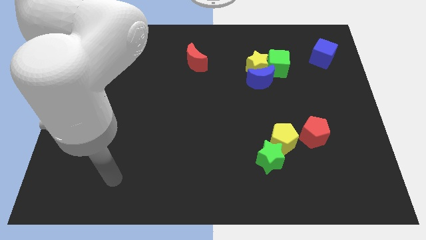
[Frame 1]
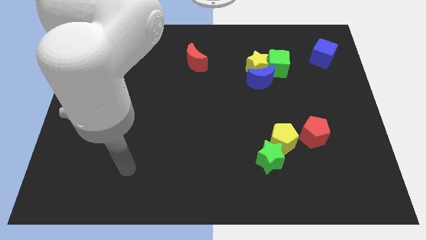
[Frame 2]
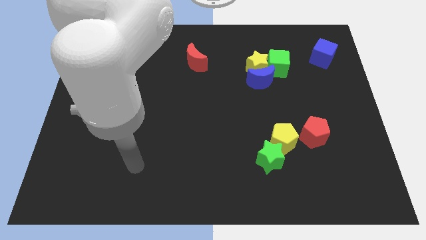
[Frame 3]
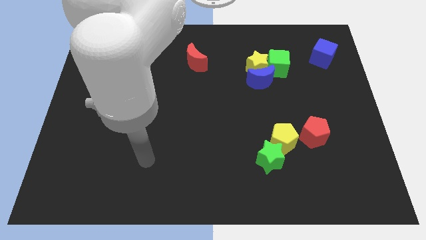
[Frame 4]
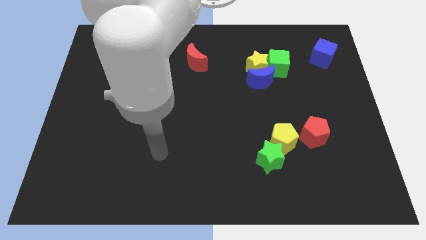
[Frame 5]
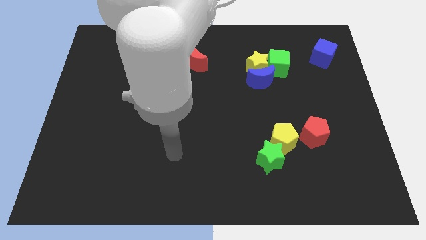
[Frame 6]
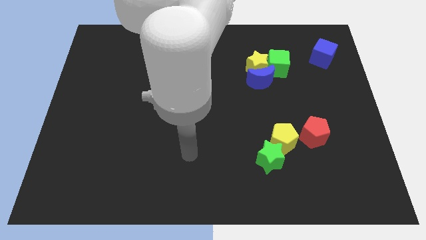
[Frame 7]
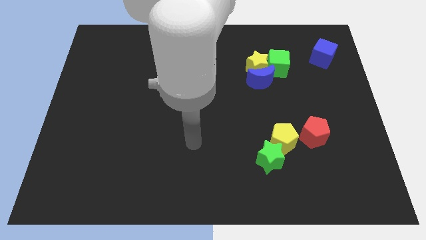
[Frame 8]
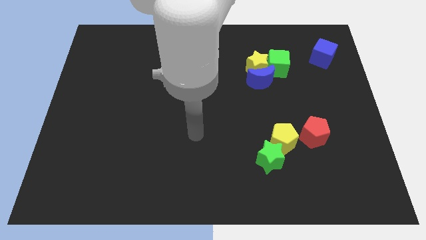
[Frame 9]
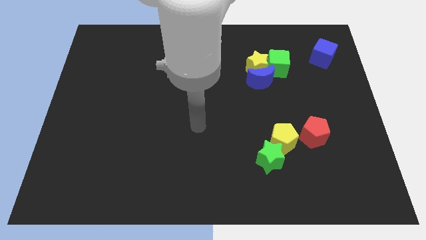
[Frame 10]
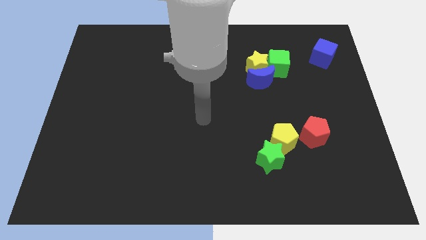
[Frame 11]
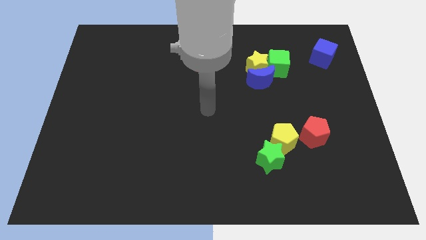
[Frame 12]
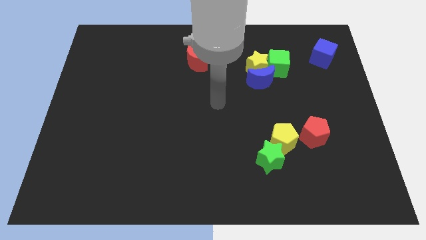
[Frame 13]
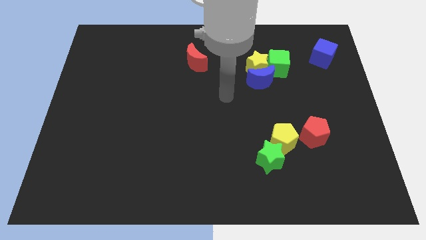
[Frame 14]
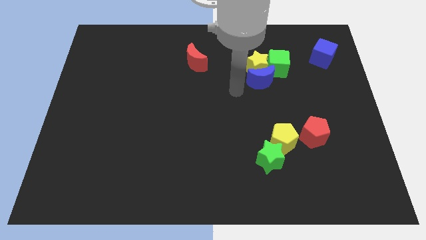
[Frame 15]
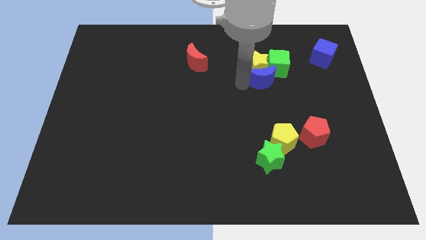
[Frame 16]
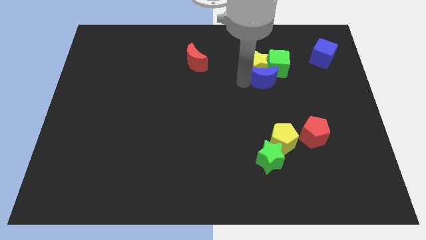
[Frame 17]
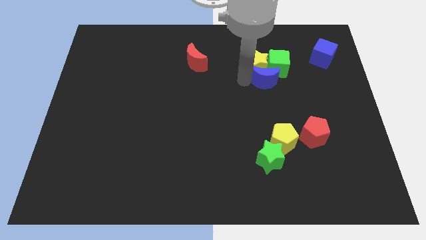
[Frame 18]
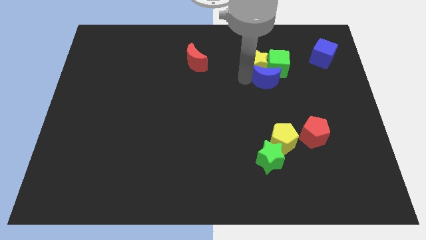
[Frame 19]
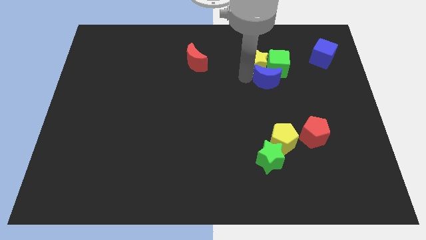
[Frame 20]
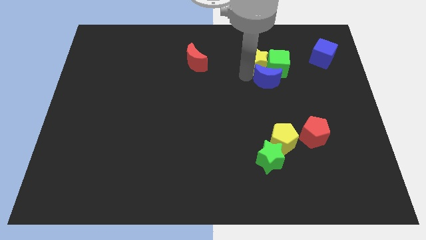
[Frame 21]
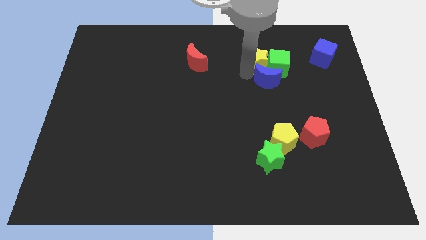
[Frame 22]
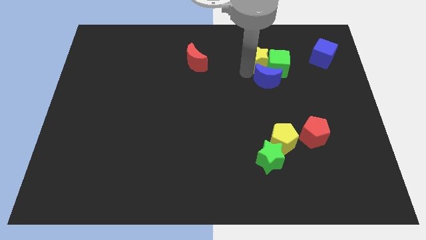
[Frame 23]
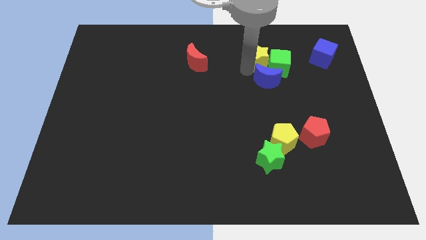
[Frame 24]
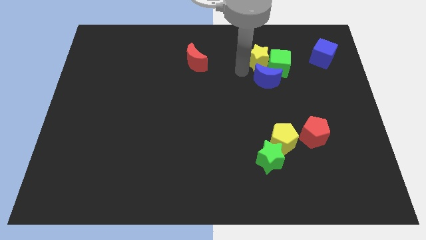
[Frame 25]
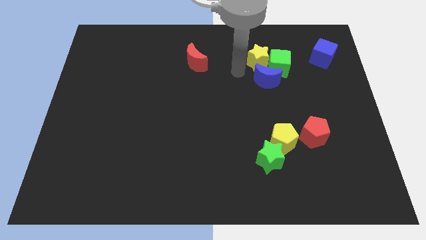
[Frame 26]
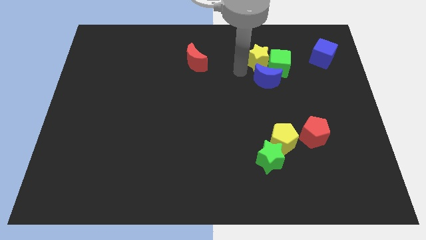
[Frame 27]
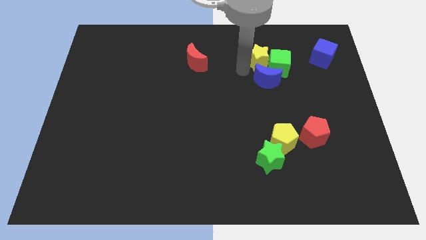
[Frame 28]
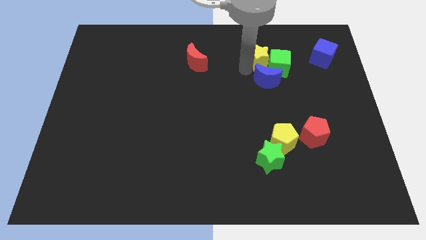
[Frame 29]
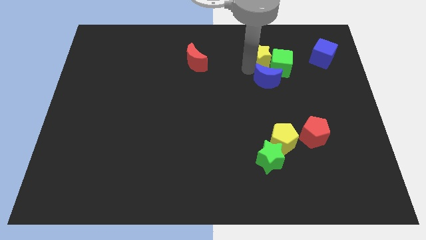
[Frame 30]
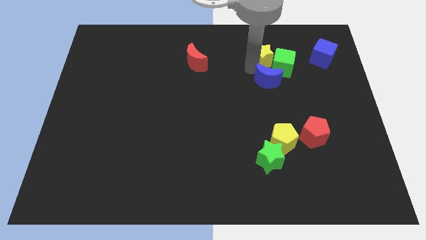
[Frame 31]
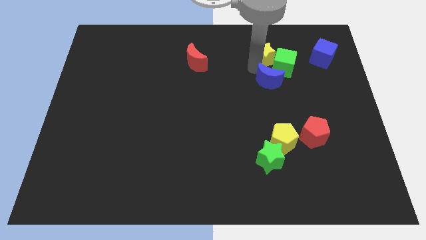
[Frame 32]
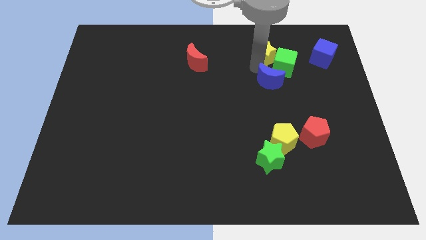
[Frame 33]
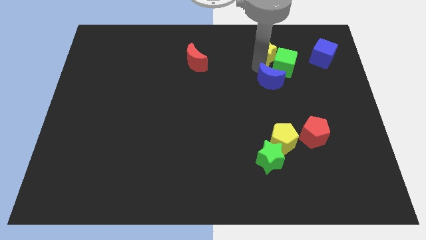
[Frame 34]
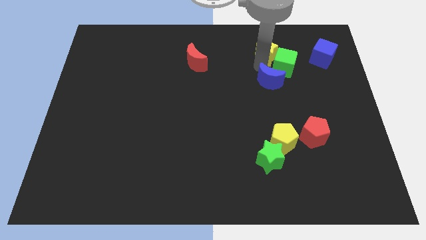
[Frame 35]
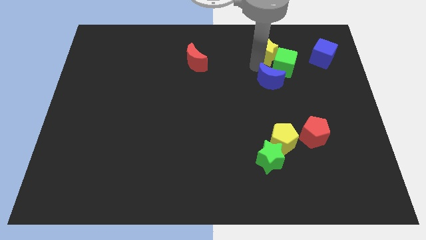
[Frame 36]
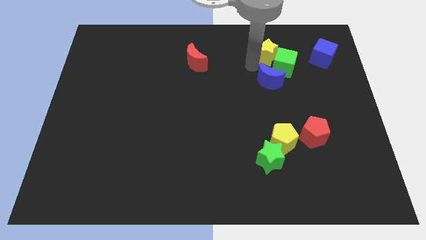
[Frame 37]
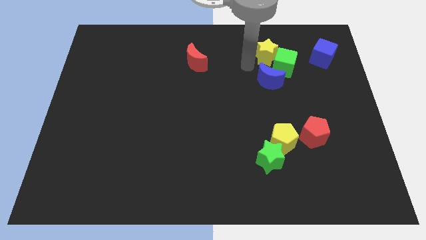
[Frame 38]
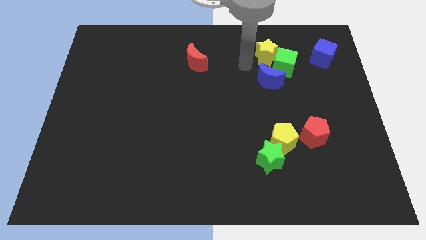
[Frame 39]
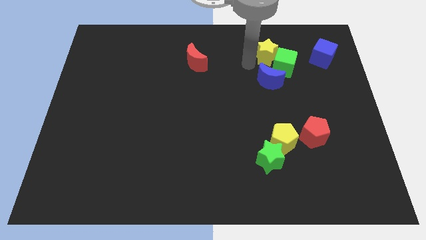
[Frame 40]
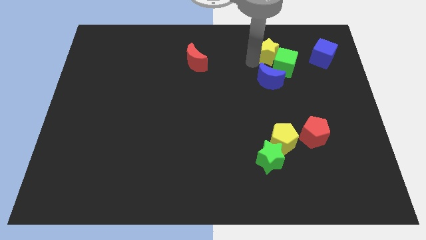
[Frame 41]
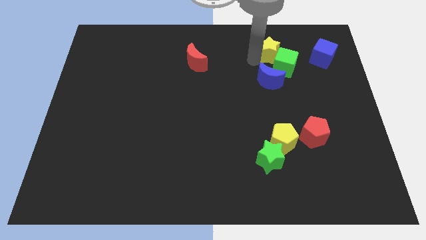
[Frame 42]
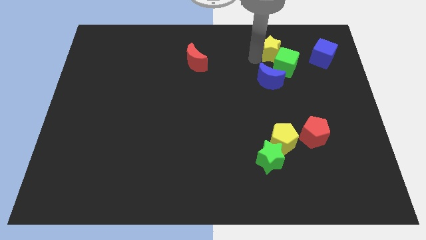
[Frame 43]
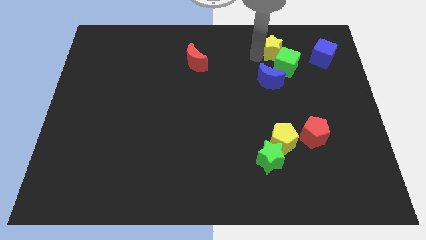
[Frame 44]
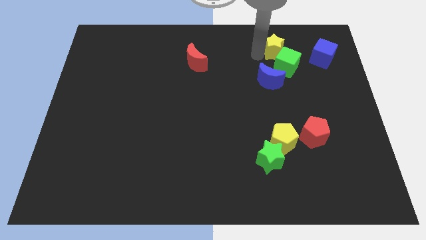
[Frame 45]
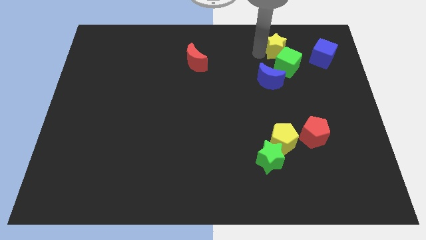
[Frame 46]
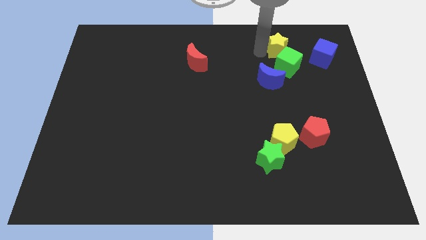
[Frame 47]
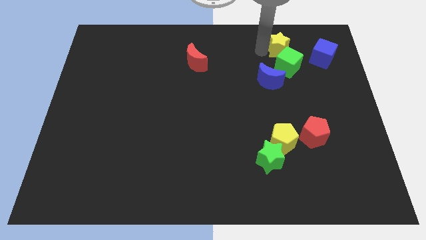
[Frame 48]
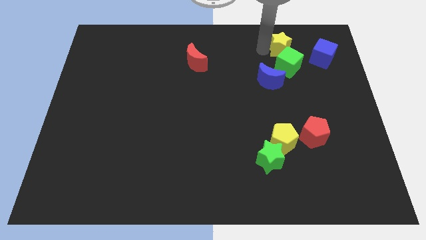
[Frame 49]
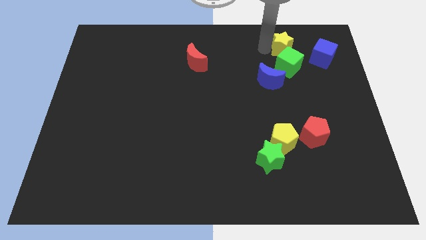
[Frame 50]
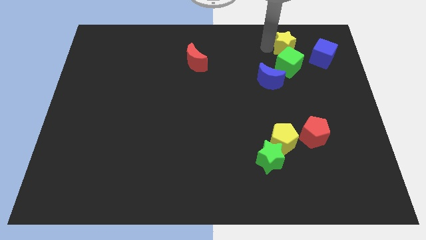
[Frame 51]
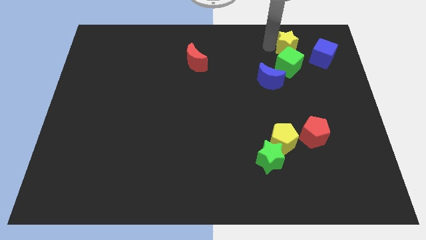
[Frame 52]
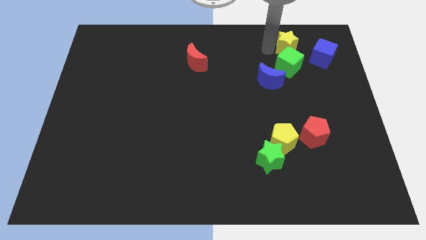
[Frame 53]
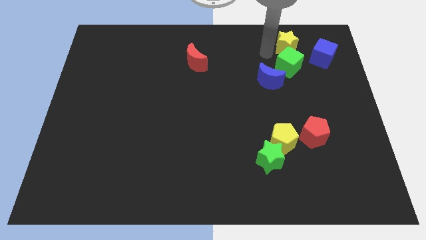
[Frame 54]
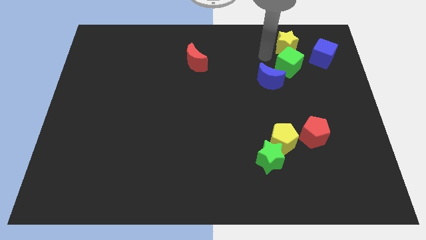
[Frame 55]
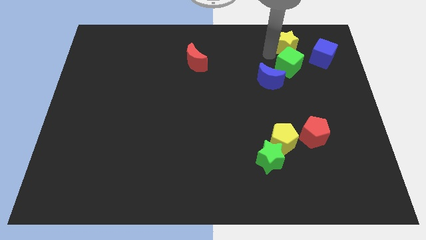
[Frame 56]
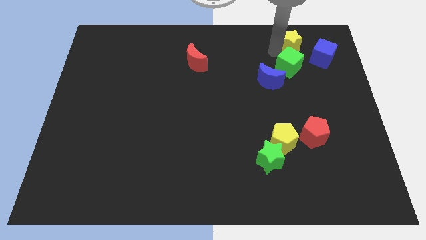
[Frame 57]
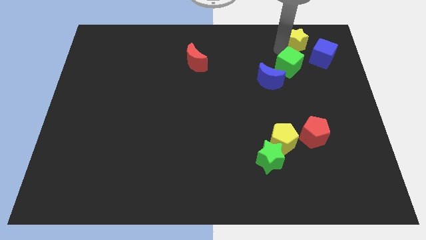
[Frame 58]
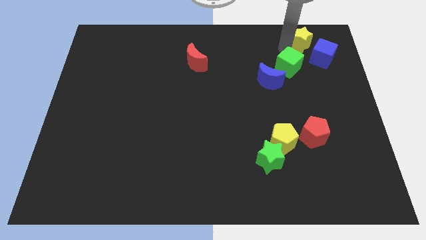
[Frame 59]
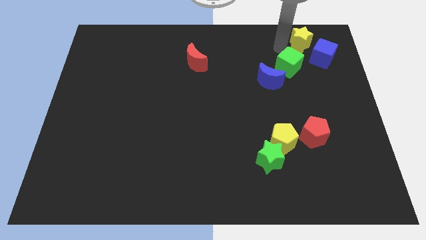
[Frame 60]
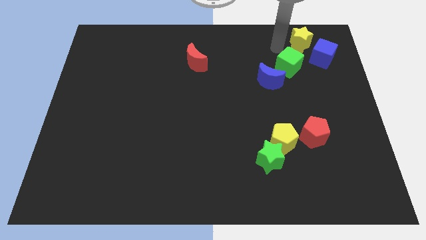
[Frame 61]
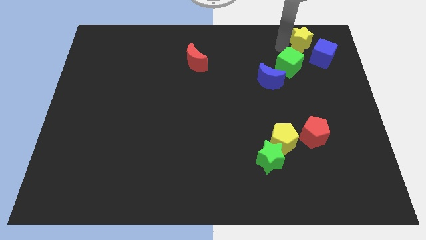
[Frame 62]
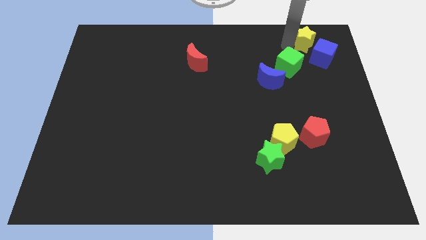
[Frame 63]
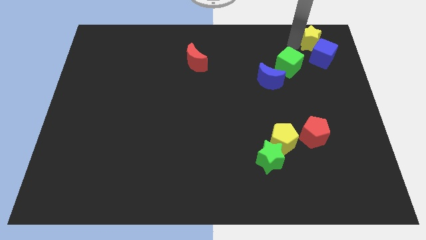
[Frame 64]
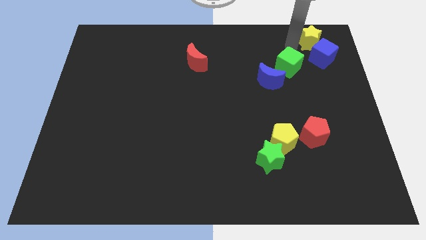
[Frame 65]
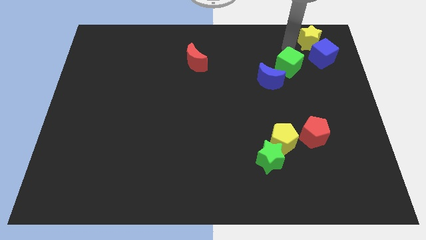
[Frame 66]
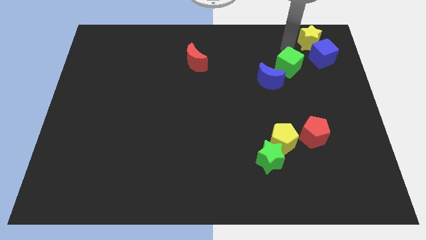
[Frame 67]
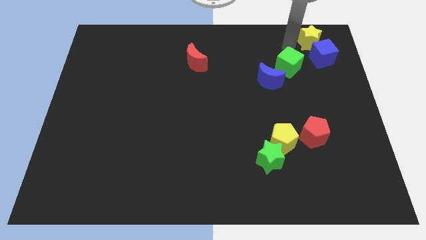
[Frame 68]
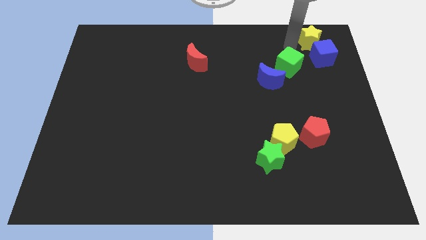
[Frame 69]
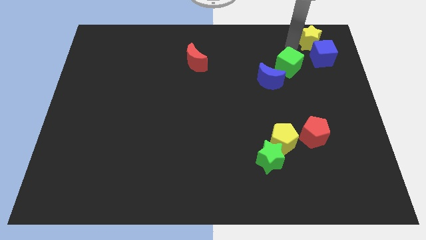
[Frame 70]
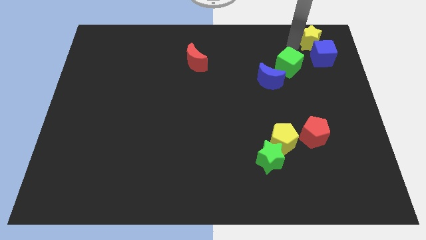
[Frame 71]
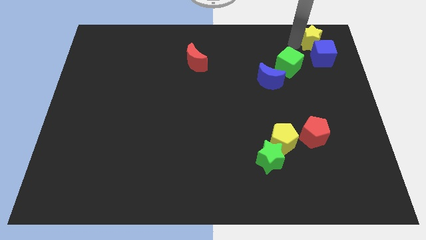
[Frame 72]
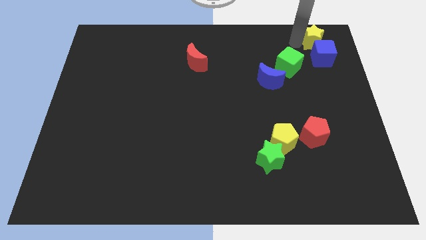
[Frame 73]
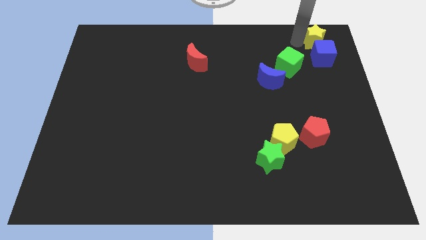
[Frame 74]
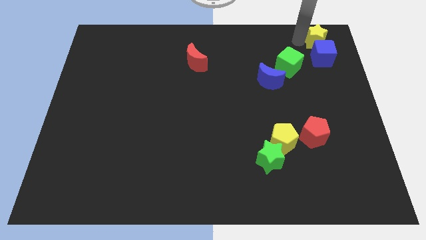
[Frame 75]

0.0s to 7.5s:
move the yellow star to the top right
